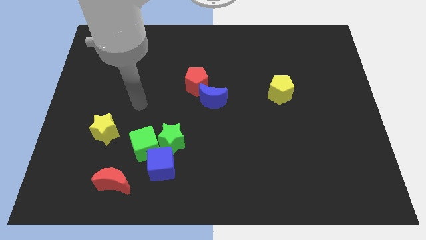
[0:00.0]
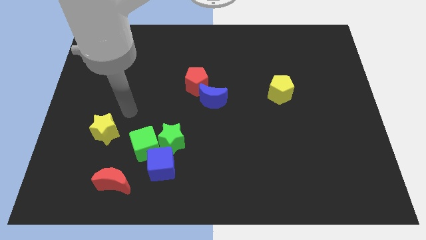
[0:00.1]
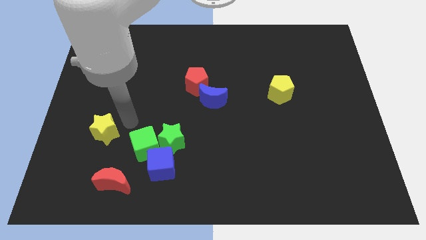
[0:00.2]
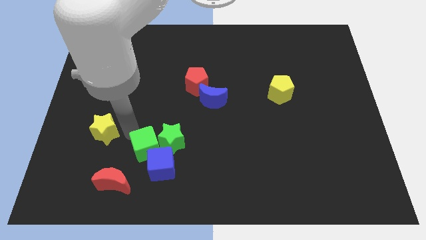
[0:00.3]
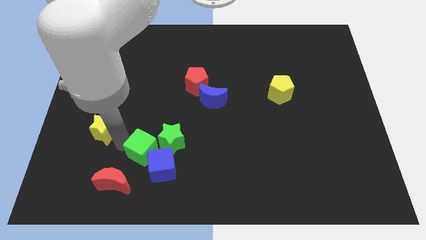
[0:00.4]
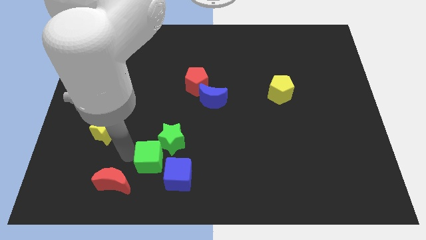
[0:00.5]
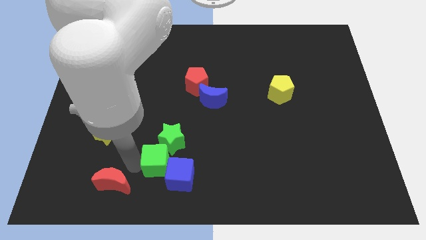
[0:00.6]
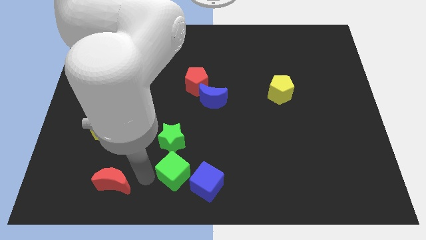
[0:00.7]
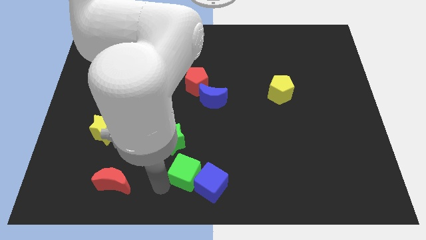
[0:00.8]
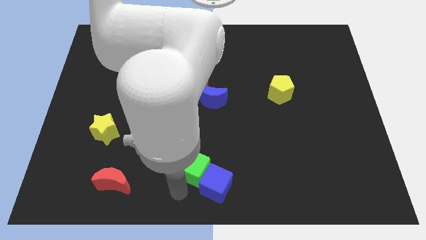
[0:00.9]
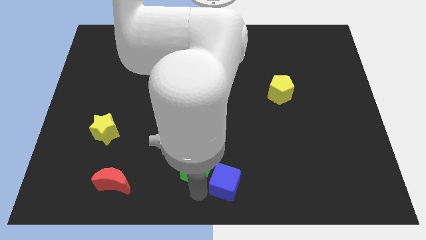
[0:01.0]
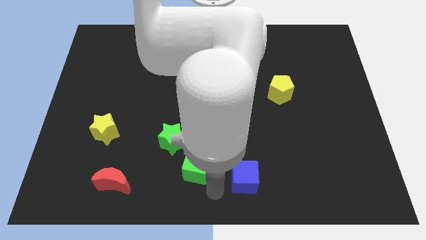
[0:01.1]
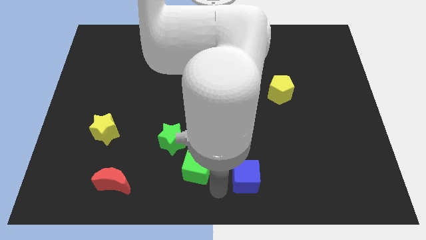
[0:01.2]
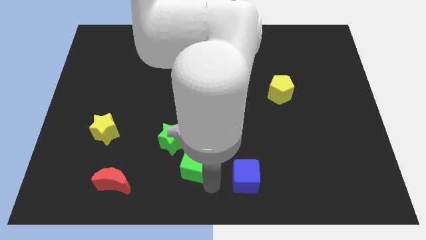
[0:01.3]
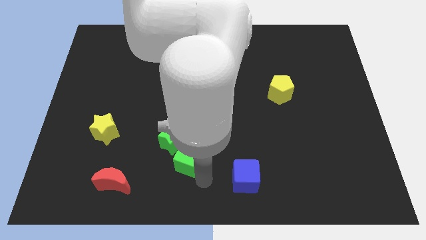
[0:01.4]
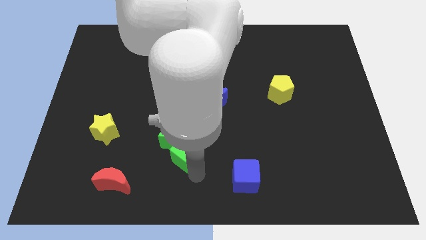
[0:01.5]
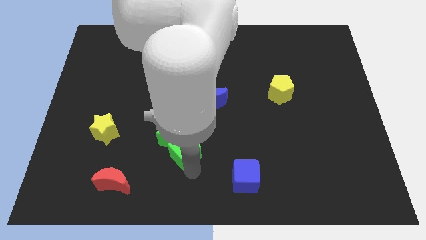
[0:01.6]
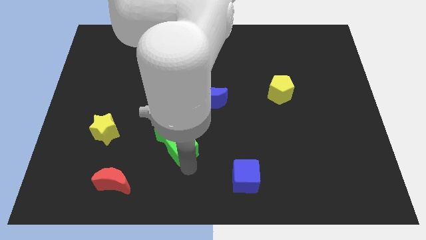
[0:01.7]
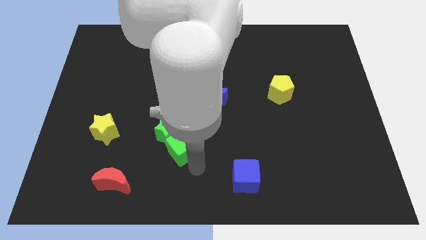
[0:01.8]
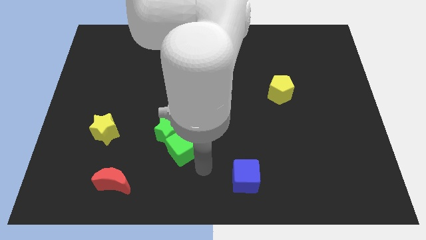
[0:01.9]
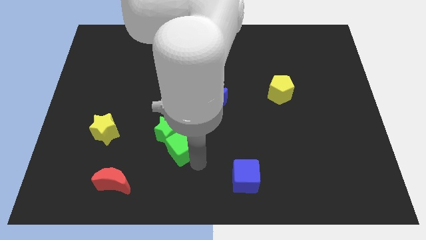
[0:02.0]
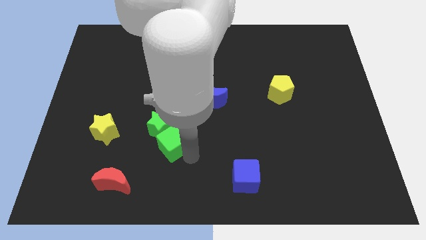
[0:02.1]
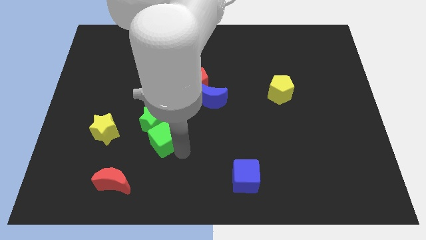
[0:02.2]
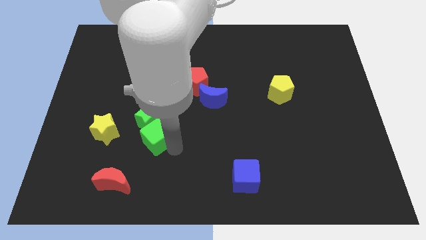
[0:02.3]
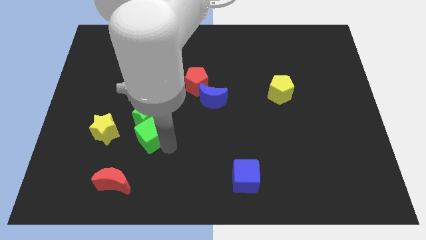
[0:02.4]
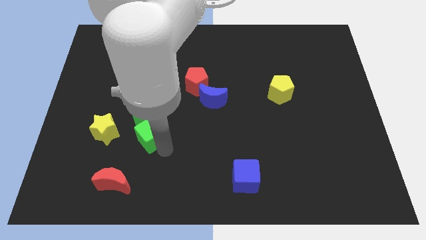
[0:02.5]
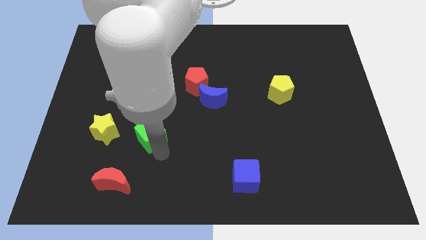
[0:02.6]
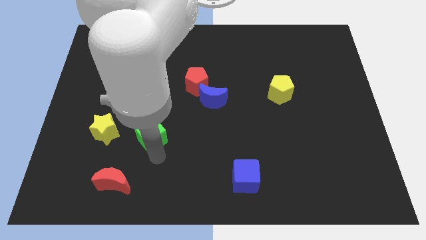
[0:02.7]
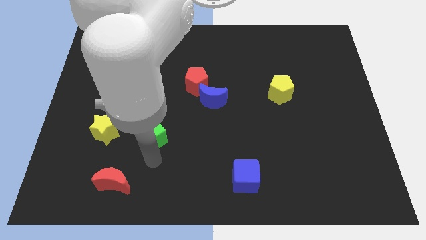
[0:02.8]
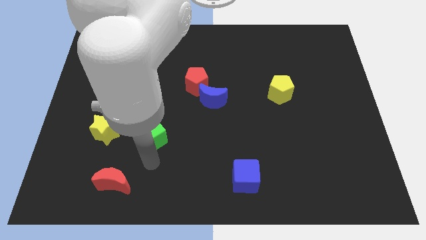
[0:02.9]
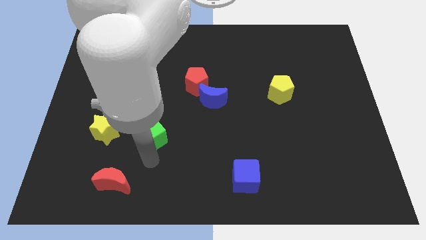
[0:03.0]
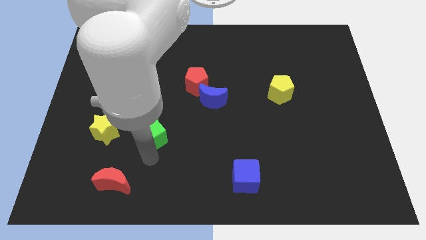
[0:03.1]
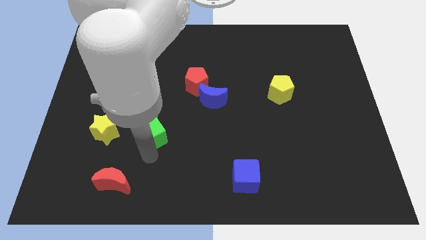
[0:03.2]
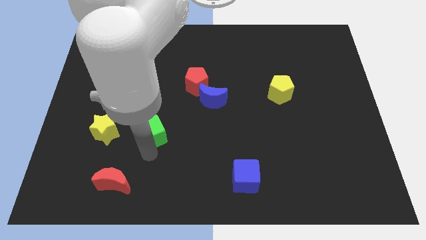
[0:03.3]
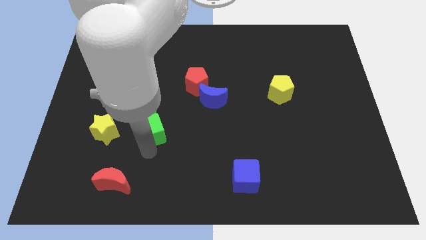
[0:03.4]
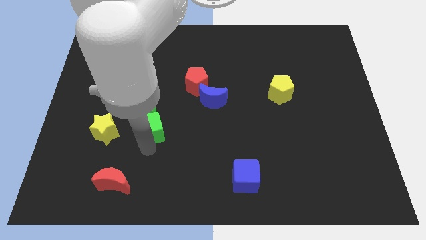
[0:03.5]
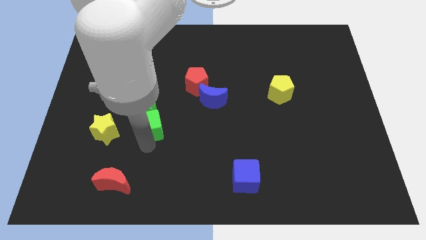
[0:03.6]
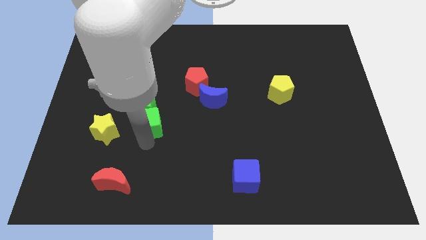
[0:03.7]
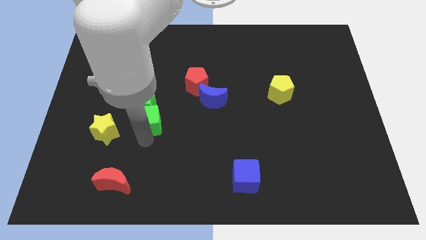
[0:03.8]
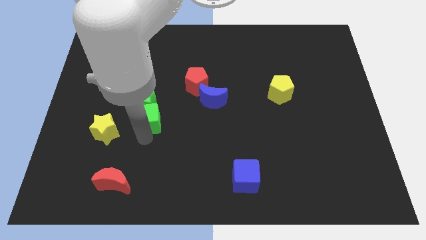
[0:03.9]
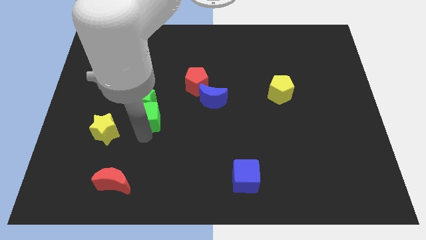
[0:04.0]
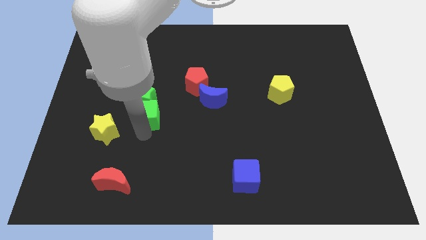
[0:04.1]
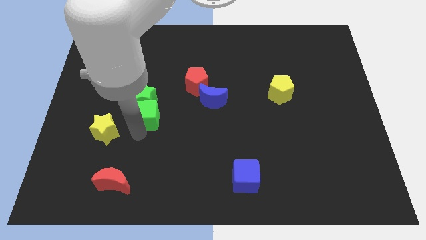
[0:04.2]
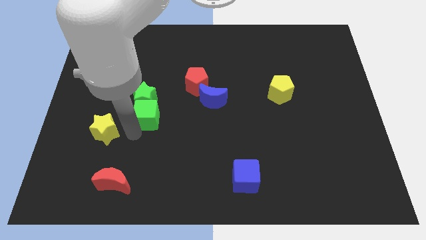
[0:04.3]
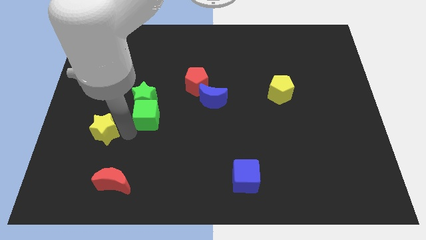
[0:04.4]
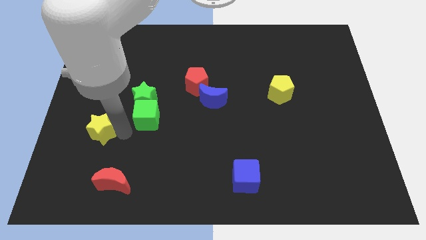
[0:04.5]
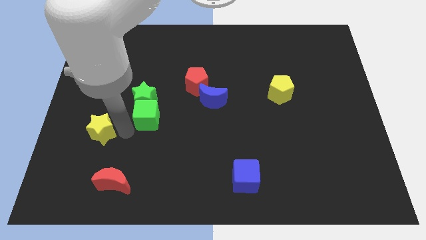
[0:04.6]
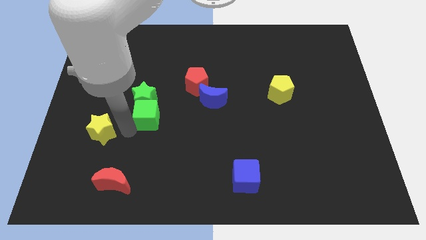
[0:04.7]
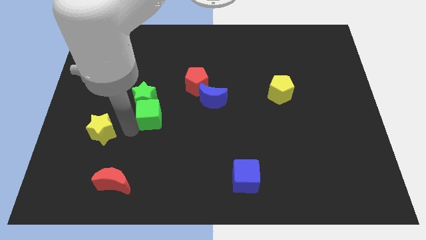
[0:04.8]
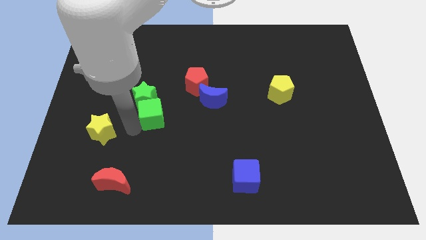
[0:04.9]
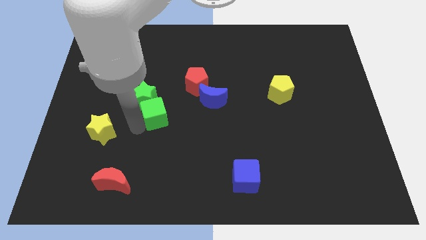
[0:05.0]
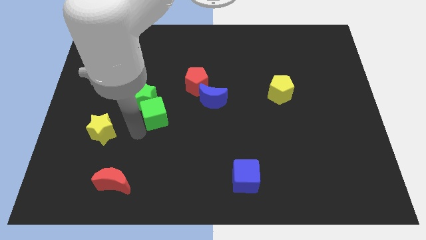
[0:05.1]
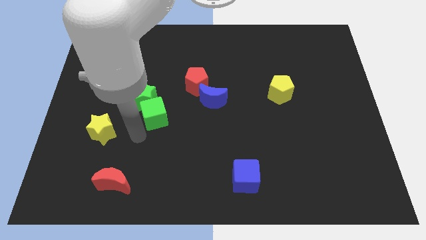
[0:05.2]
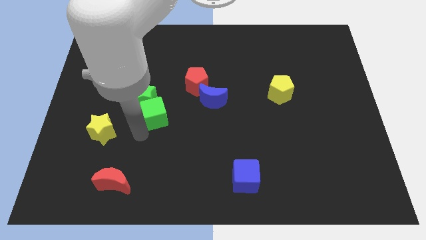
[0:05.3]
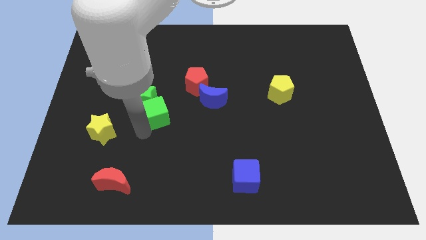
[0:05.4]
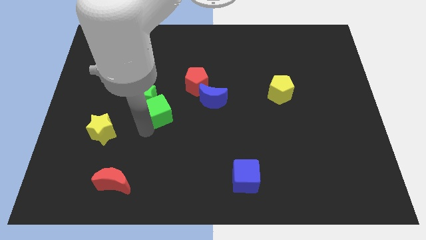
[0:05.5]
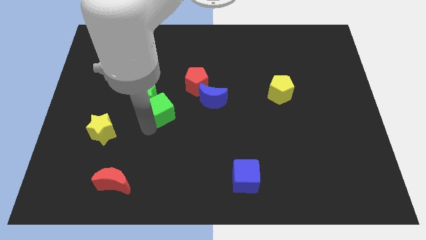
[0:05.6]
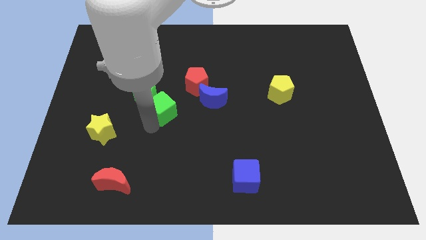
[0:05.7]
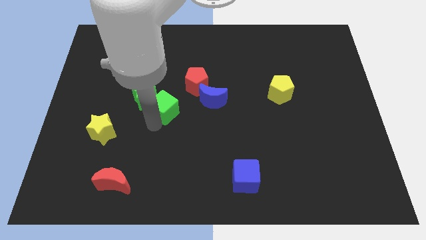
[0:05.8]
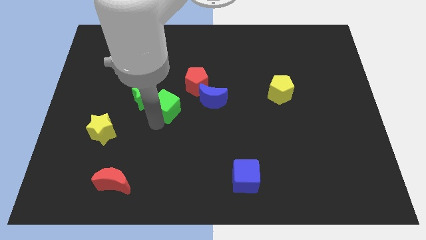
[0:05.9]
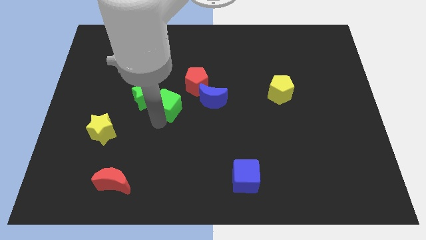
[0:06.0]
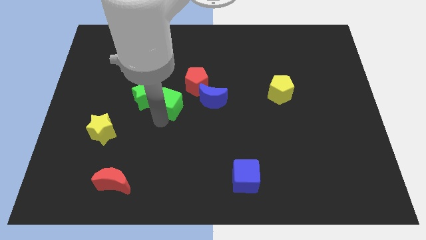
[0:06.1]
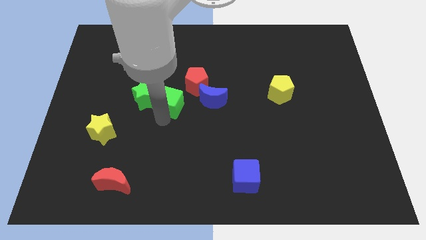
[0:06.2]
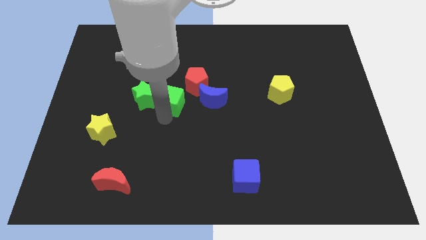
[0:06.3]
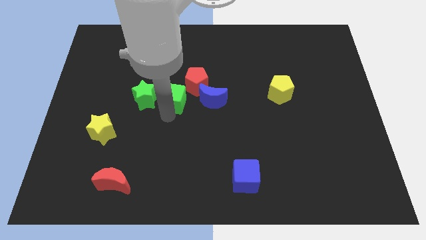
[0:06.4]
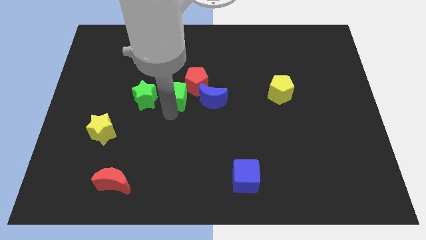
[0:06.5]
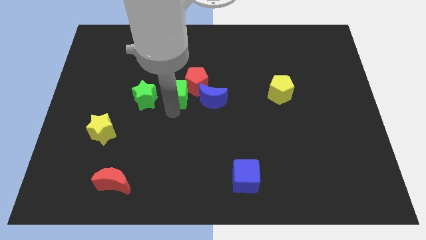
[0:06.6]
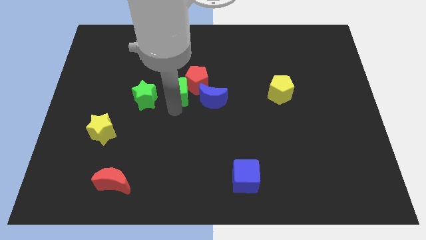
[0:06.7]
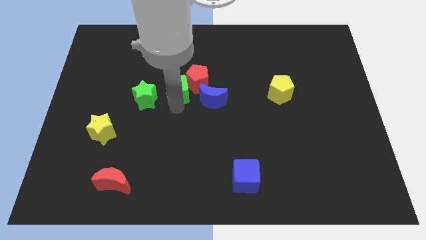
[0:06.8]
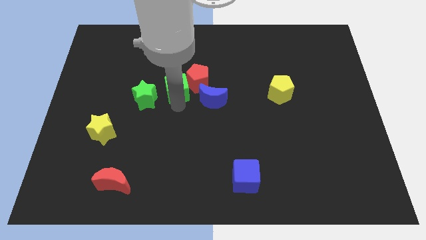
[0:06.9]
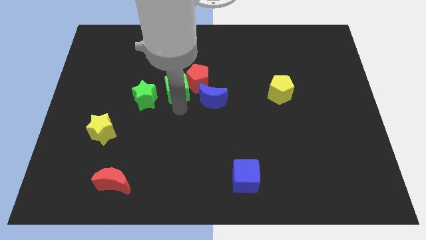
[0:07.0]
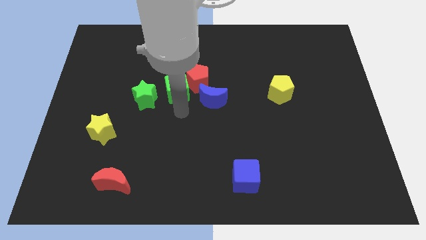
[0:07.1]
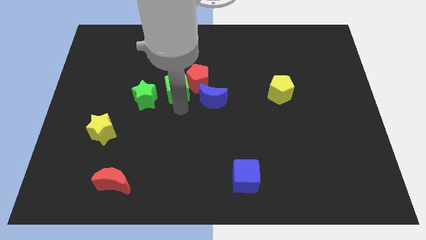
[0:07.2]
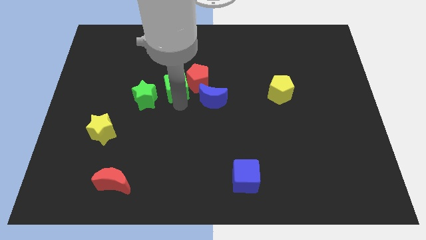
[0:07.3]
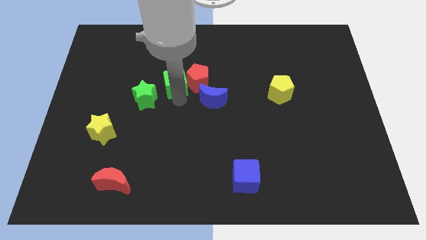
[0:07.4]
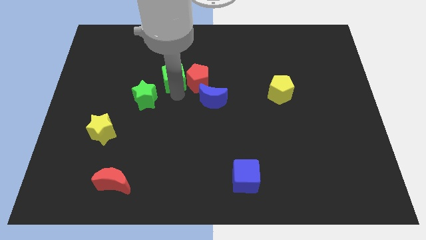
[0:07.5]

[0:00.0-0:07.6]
put the green cube diagonally up and to the left of the red pentagon
